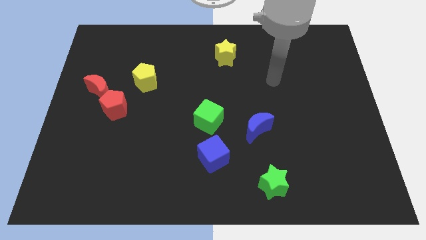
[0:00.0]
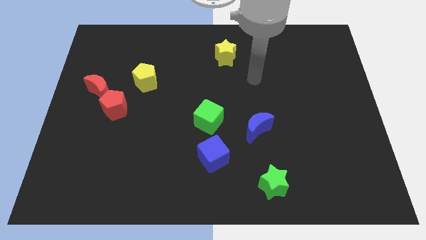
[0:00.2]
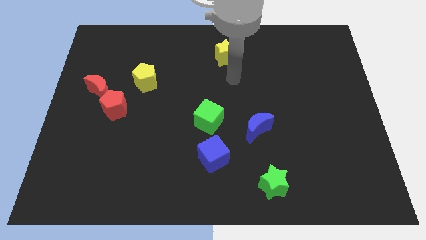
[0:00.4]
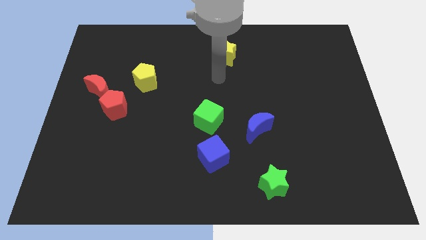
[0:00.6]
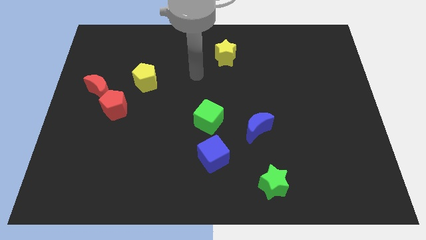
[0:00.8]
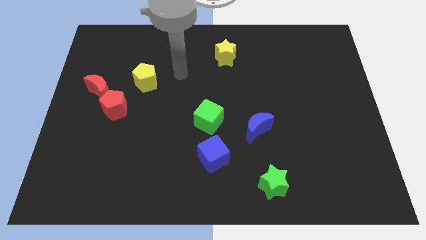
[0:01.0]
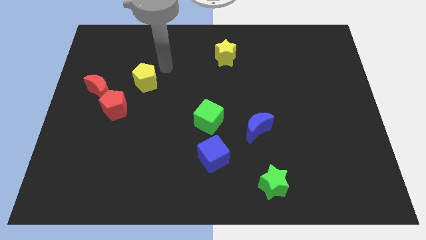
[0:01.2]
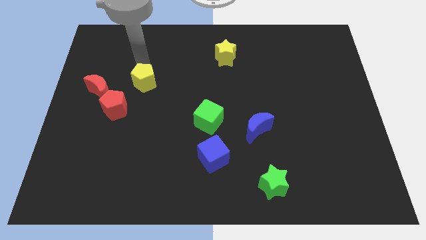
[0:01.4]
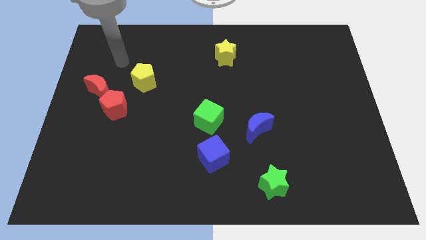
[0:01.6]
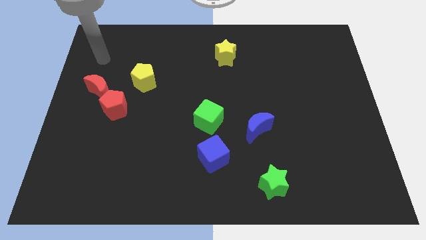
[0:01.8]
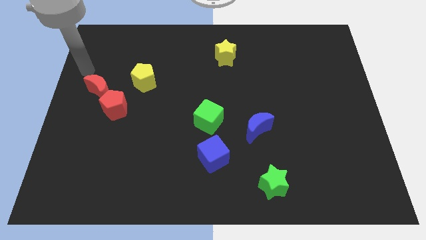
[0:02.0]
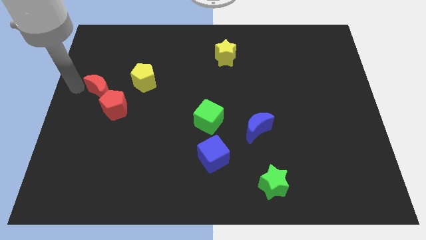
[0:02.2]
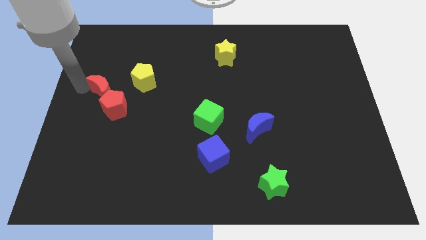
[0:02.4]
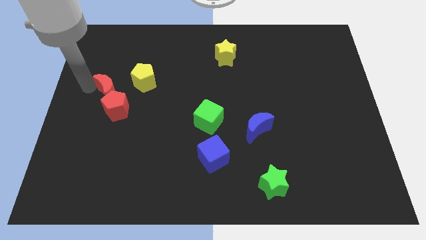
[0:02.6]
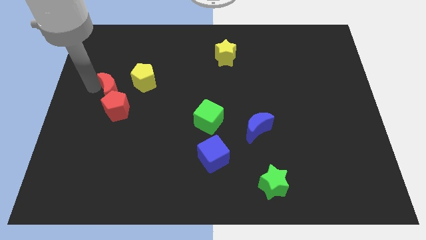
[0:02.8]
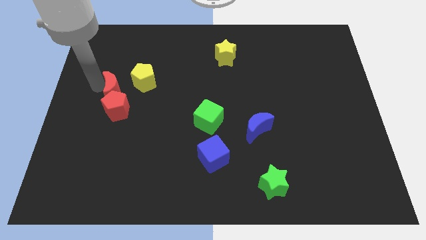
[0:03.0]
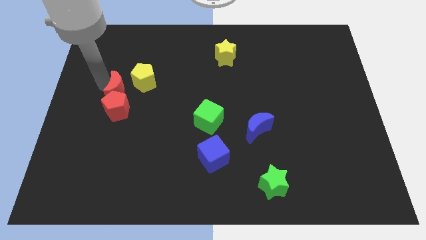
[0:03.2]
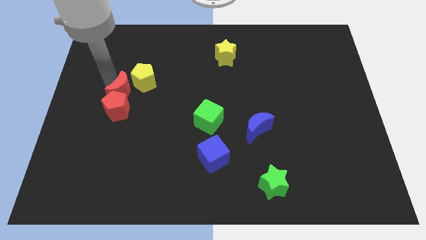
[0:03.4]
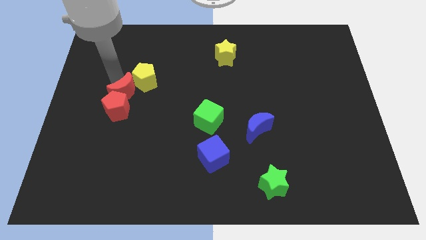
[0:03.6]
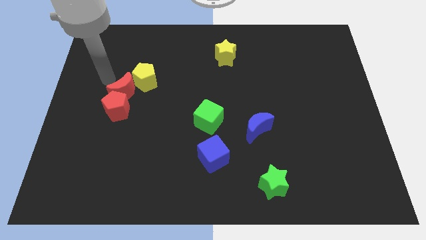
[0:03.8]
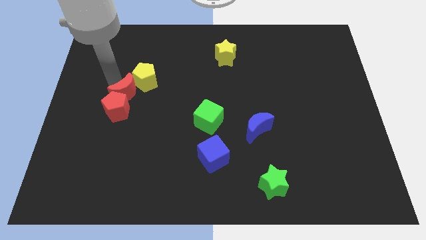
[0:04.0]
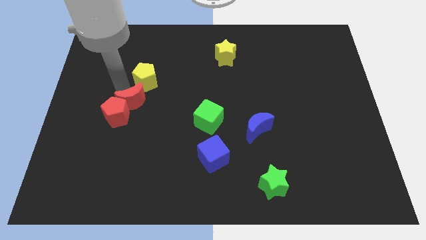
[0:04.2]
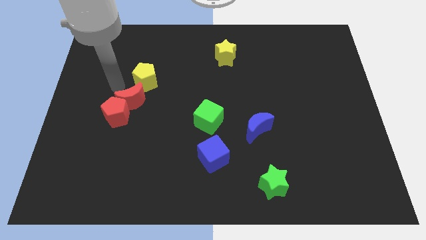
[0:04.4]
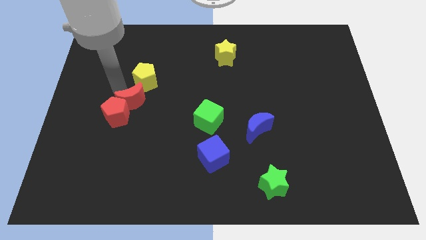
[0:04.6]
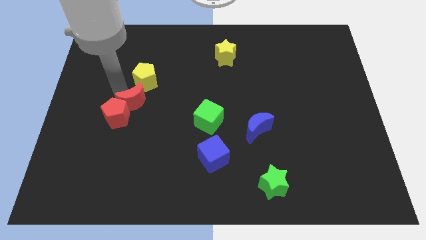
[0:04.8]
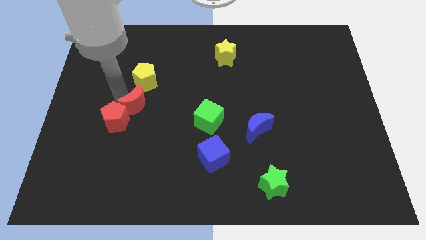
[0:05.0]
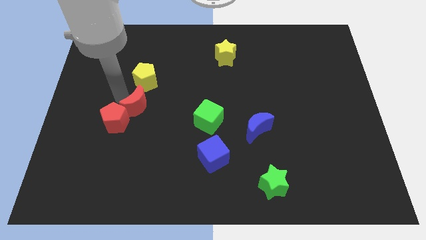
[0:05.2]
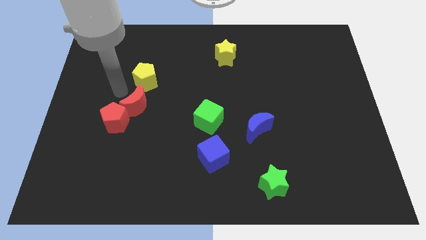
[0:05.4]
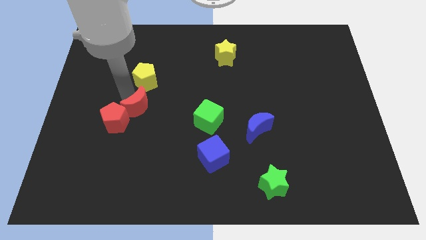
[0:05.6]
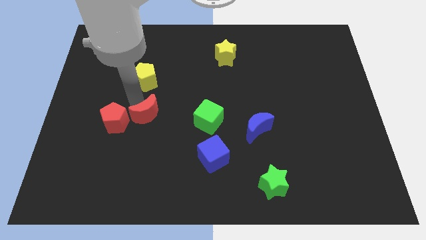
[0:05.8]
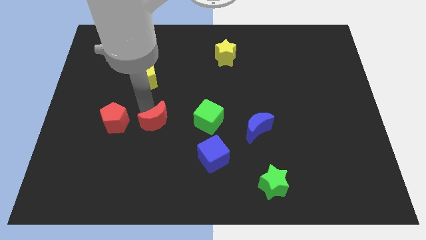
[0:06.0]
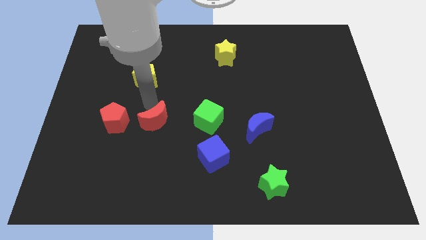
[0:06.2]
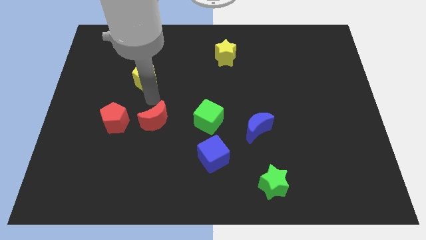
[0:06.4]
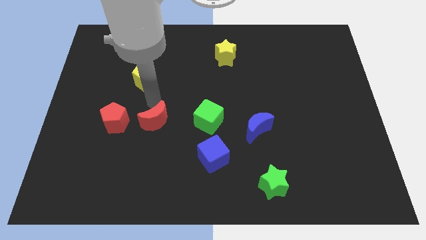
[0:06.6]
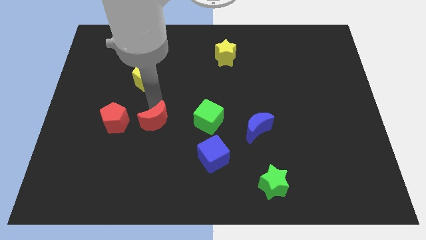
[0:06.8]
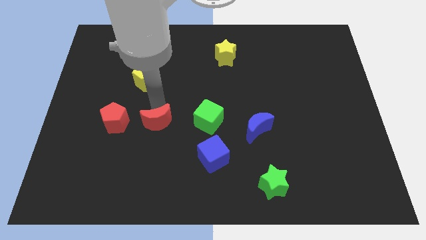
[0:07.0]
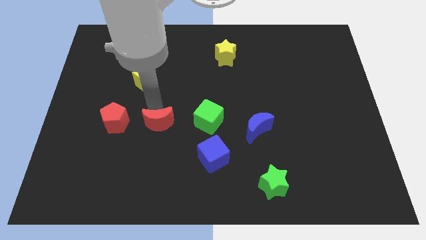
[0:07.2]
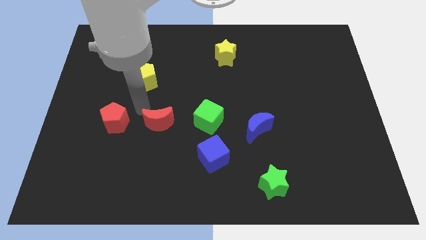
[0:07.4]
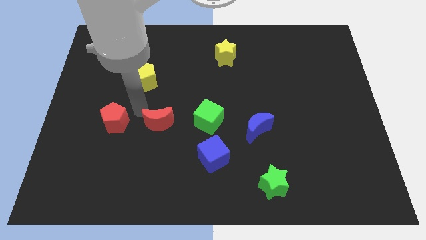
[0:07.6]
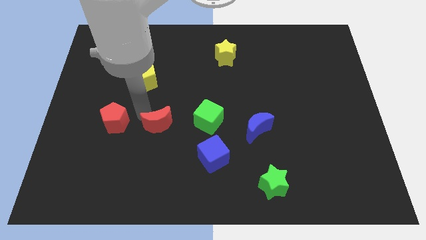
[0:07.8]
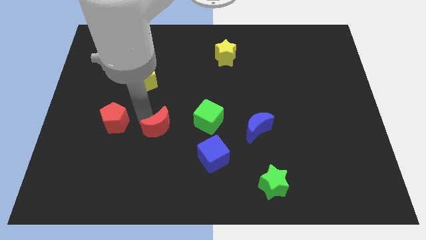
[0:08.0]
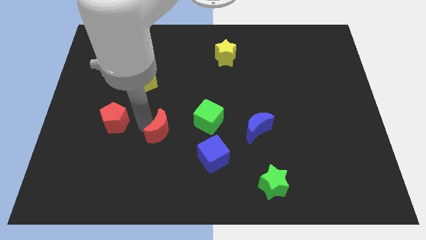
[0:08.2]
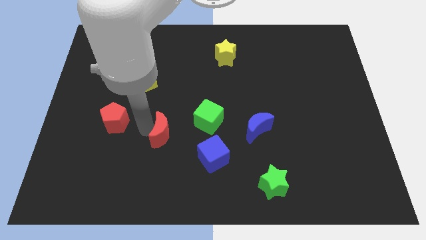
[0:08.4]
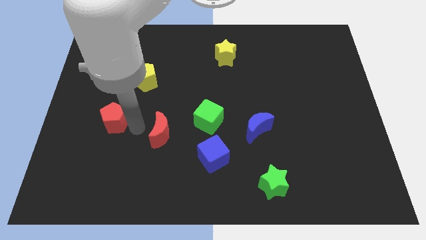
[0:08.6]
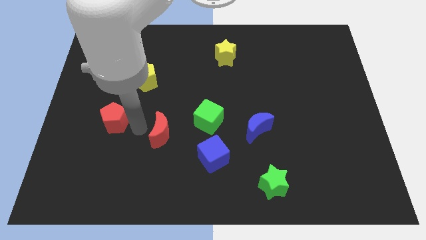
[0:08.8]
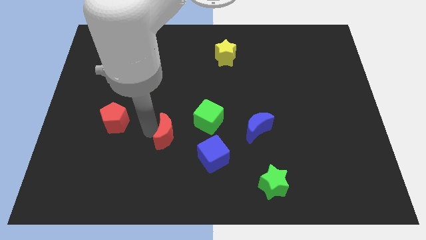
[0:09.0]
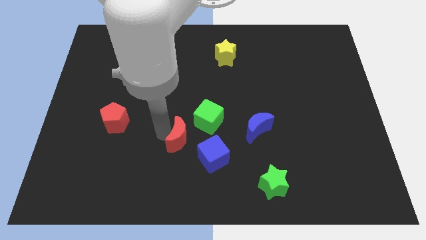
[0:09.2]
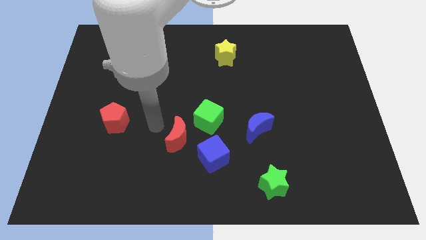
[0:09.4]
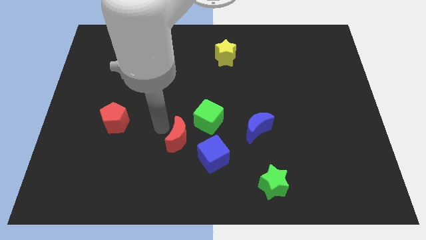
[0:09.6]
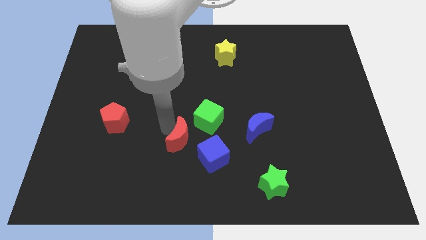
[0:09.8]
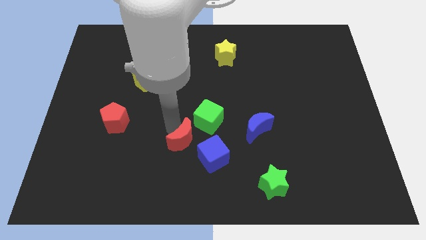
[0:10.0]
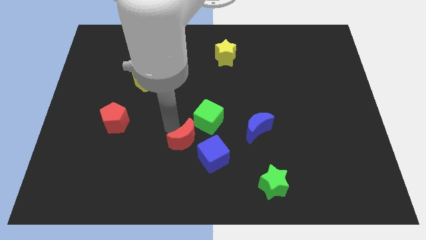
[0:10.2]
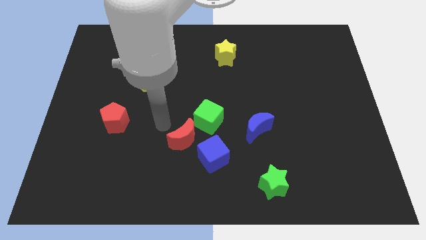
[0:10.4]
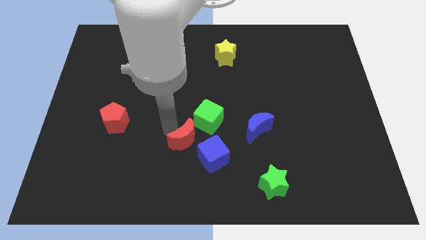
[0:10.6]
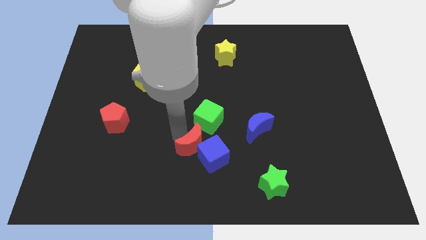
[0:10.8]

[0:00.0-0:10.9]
move the red moon close to the blue cube

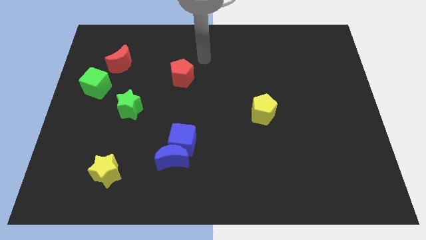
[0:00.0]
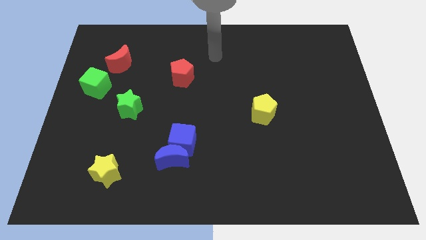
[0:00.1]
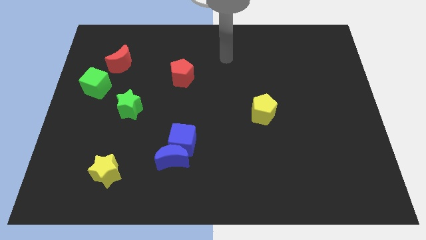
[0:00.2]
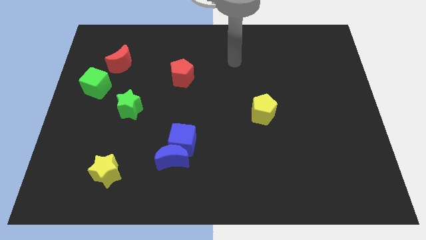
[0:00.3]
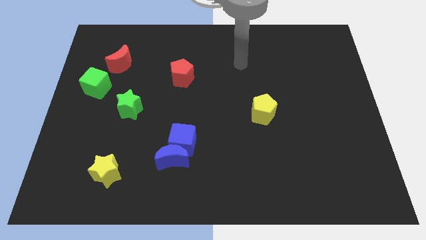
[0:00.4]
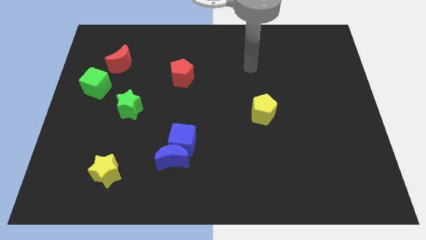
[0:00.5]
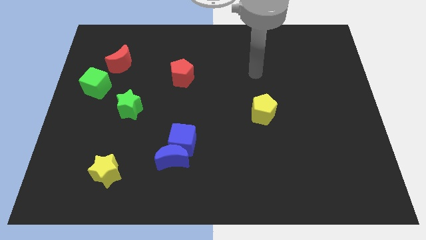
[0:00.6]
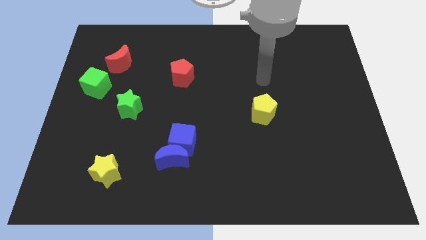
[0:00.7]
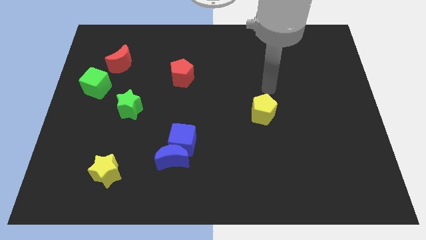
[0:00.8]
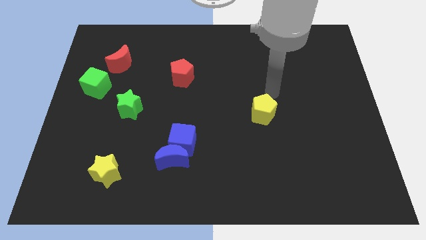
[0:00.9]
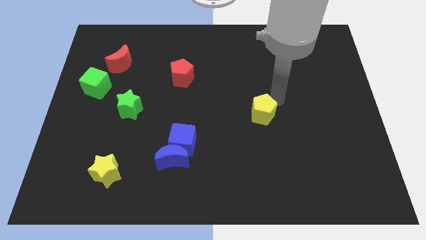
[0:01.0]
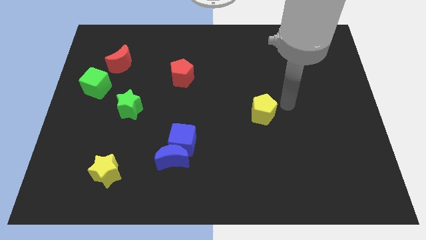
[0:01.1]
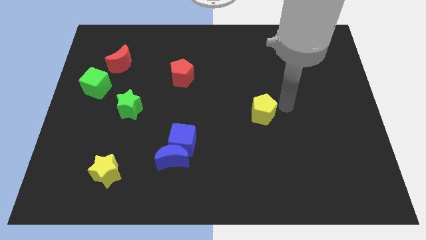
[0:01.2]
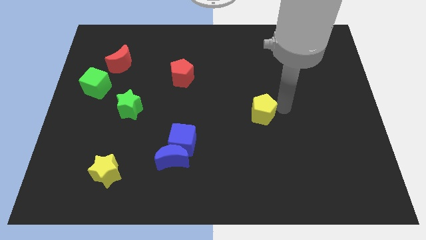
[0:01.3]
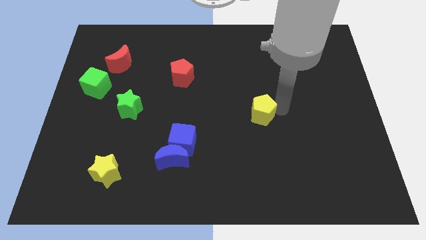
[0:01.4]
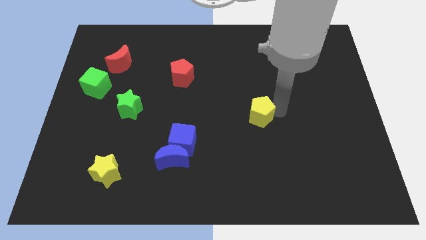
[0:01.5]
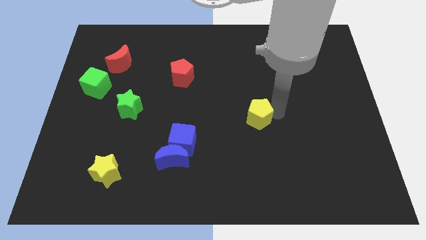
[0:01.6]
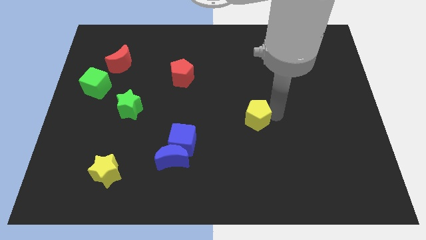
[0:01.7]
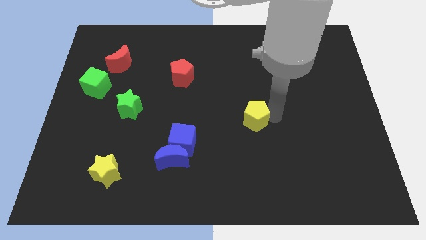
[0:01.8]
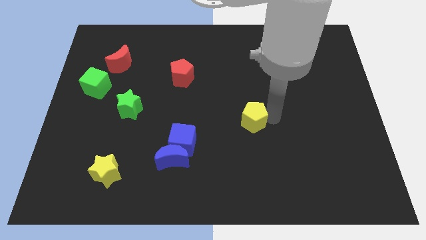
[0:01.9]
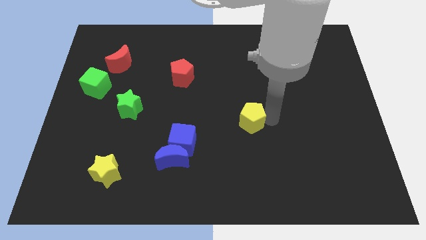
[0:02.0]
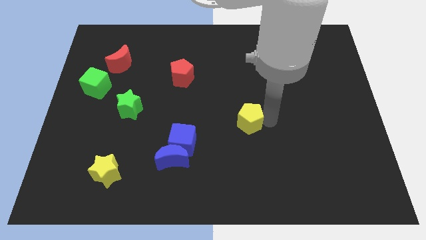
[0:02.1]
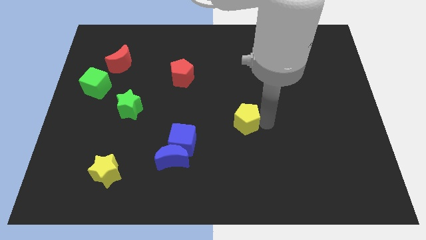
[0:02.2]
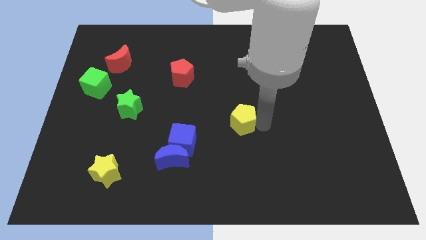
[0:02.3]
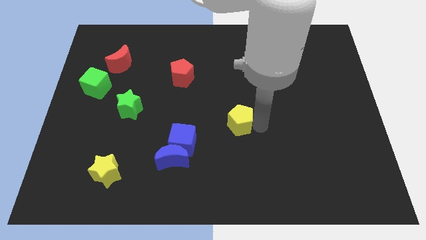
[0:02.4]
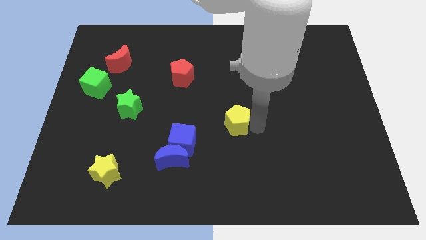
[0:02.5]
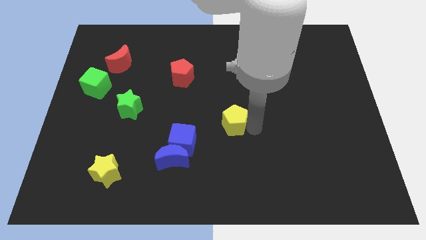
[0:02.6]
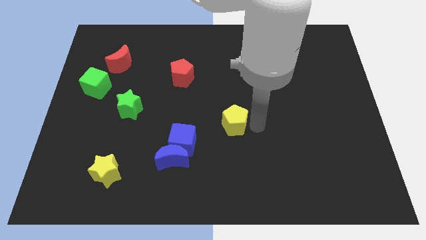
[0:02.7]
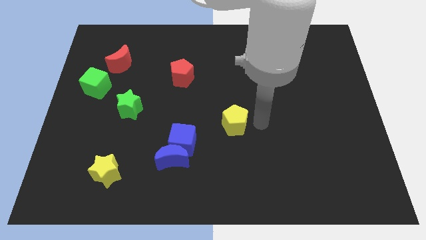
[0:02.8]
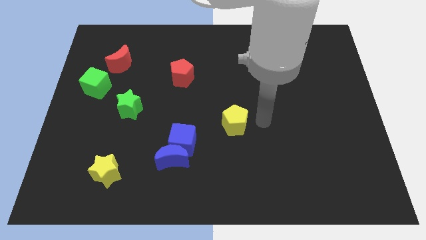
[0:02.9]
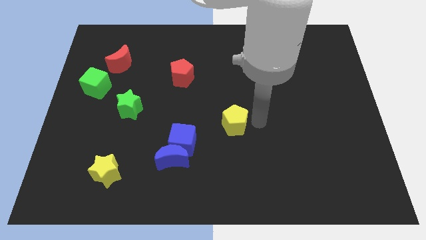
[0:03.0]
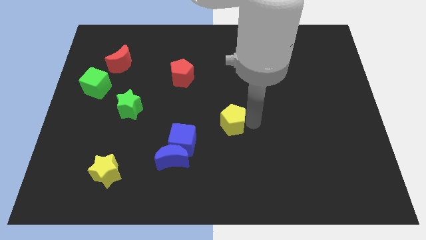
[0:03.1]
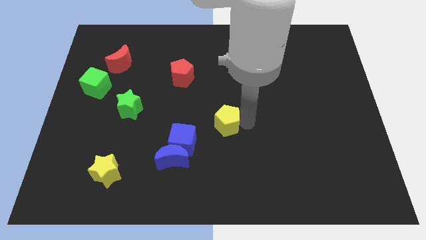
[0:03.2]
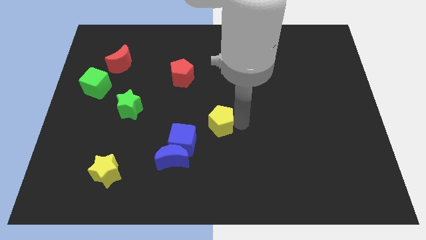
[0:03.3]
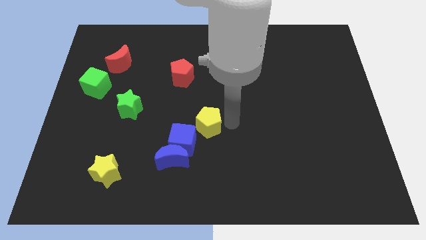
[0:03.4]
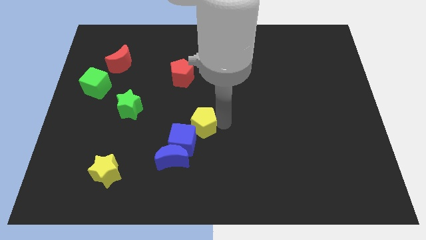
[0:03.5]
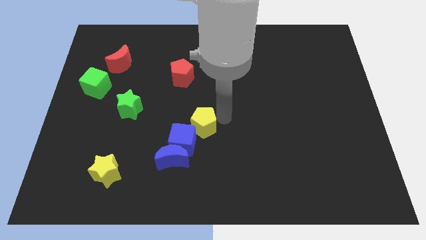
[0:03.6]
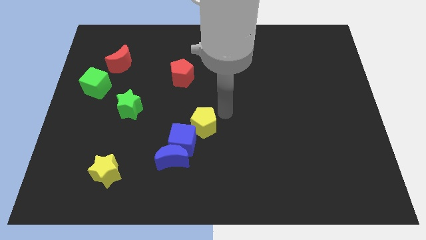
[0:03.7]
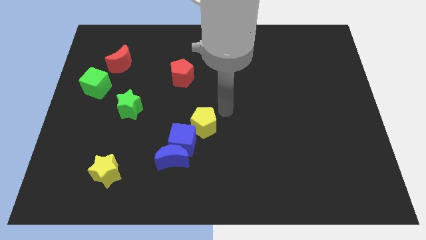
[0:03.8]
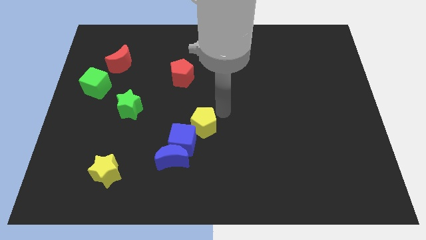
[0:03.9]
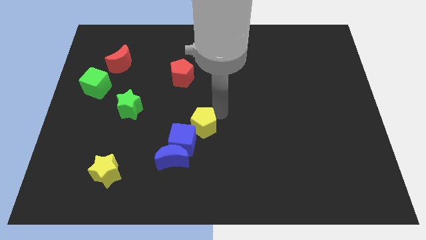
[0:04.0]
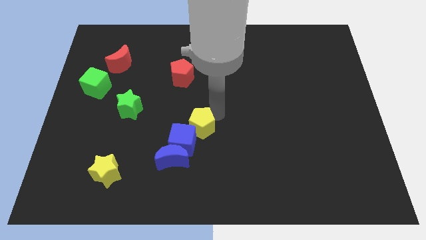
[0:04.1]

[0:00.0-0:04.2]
push the yellow pentagon towards the blue cube
